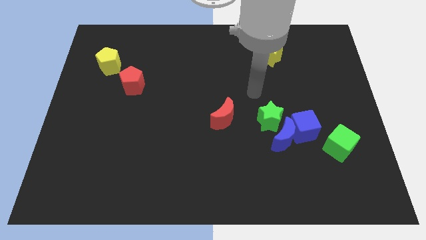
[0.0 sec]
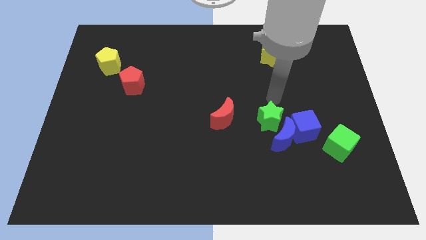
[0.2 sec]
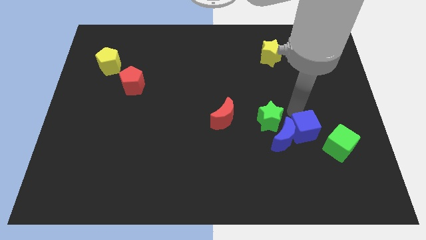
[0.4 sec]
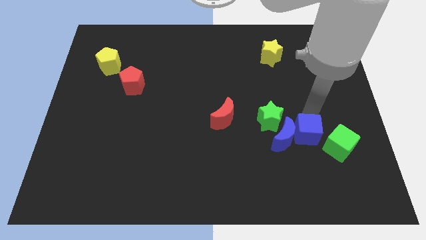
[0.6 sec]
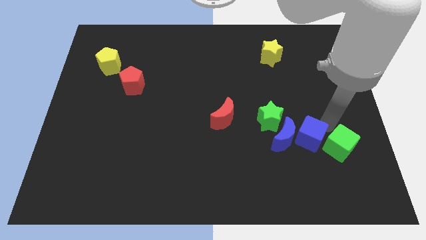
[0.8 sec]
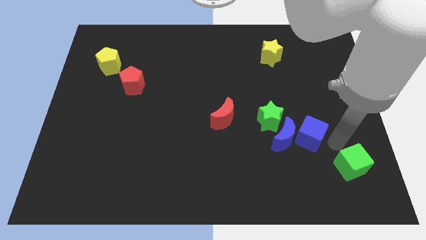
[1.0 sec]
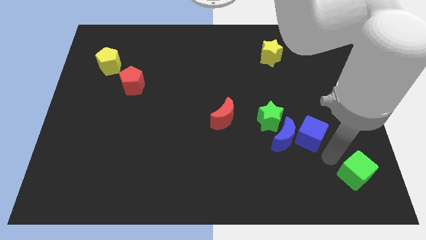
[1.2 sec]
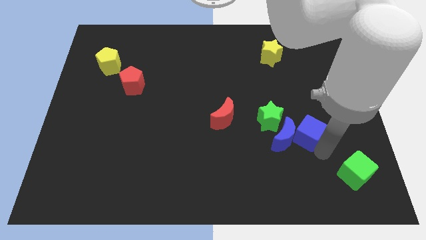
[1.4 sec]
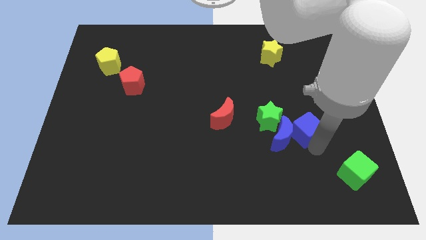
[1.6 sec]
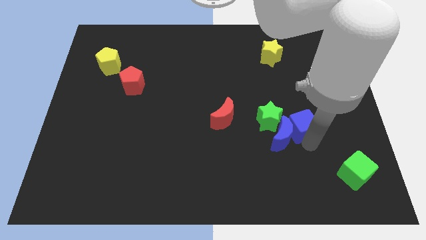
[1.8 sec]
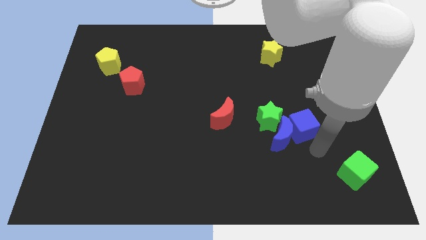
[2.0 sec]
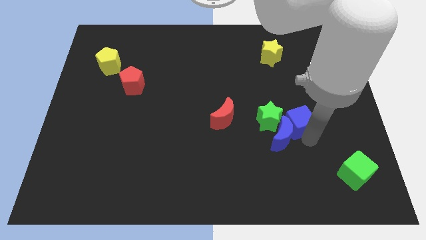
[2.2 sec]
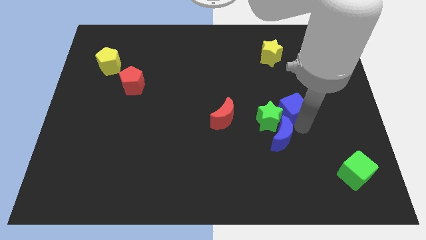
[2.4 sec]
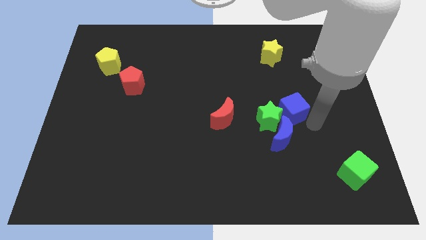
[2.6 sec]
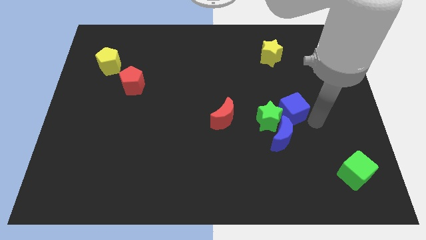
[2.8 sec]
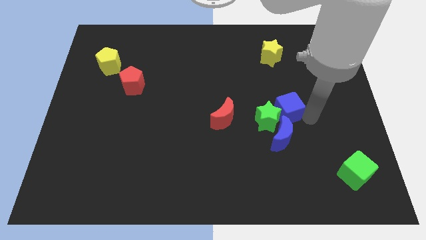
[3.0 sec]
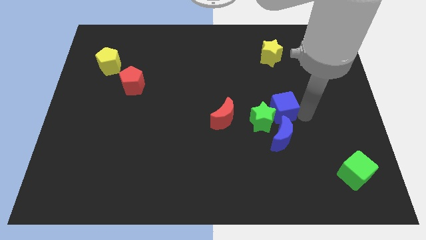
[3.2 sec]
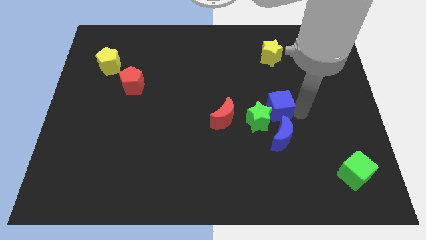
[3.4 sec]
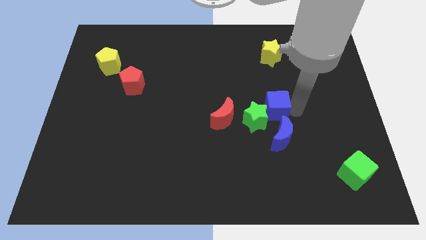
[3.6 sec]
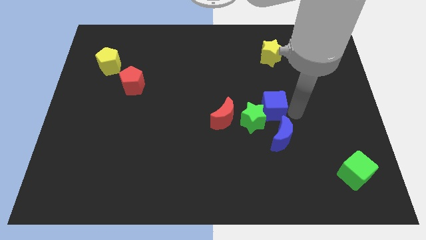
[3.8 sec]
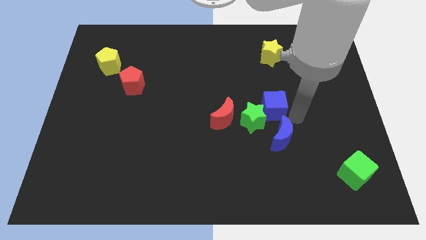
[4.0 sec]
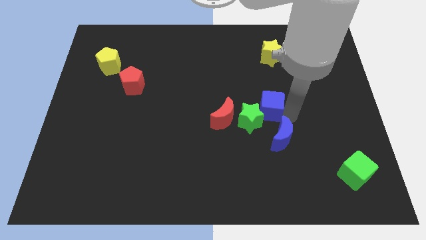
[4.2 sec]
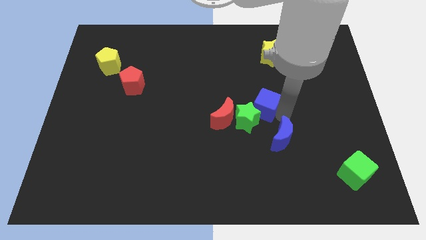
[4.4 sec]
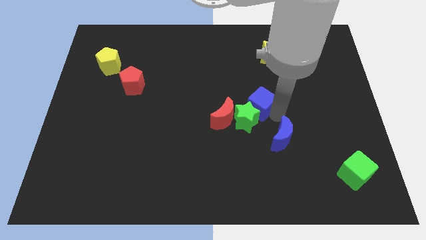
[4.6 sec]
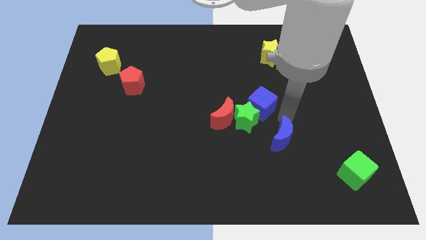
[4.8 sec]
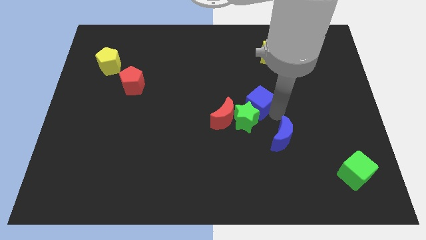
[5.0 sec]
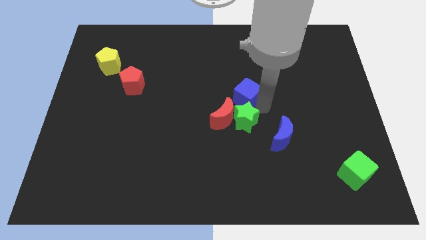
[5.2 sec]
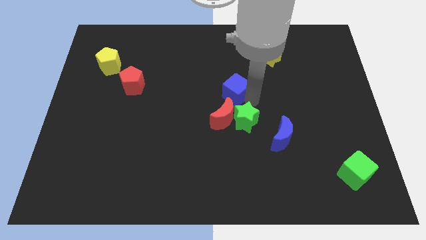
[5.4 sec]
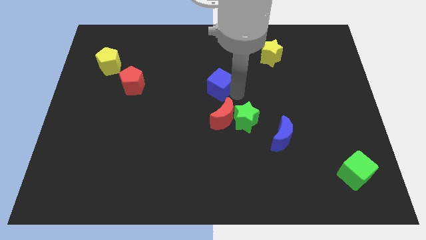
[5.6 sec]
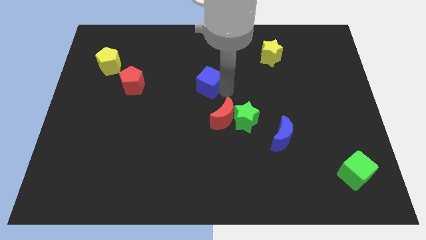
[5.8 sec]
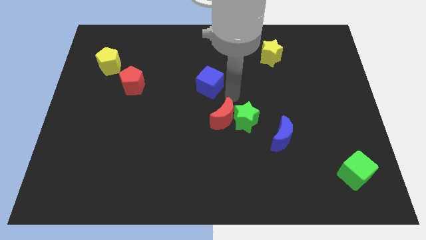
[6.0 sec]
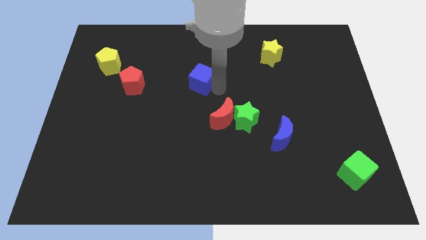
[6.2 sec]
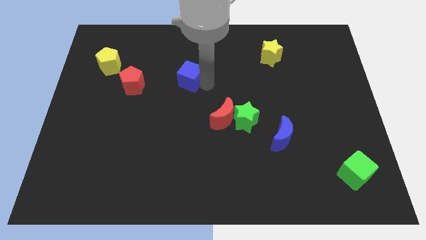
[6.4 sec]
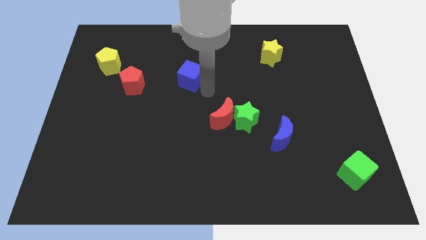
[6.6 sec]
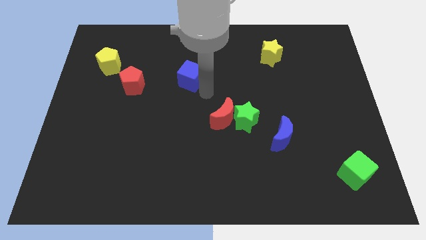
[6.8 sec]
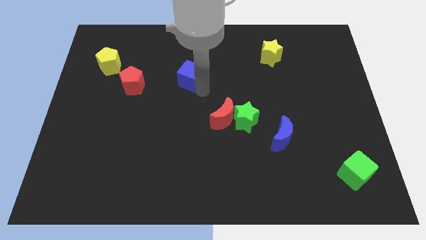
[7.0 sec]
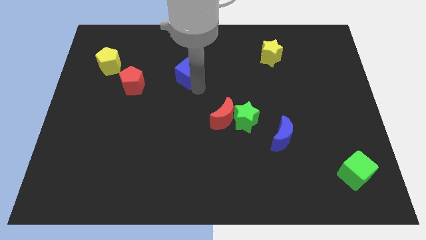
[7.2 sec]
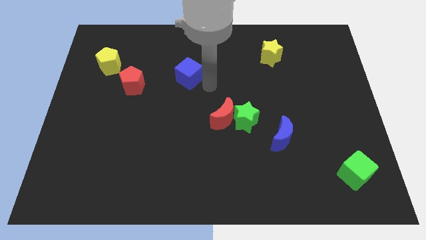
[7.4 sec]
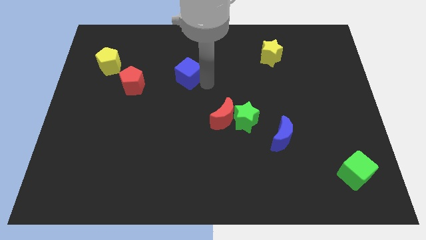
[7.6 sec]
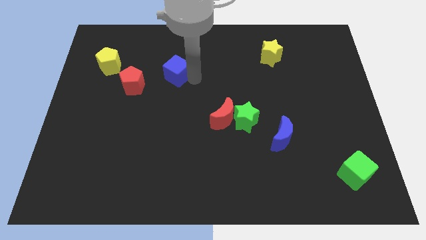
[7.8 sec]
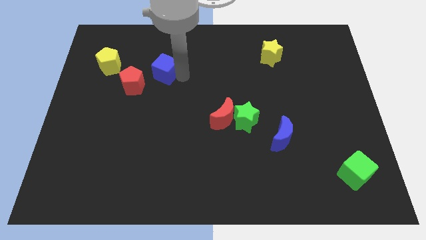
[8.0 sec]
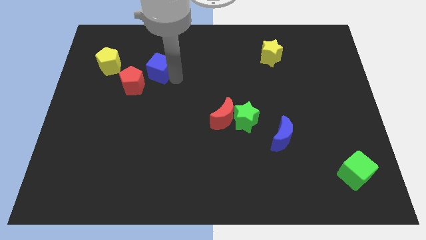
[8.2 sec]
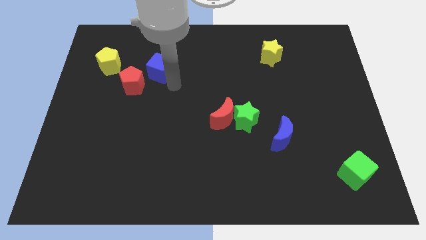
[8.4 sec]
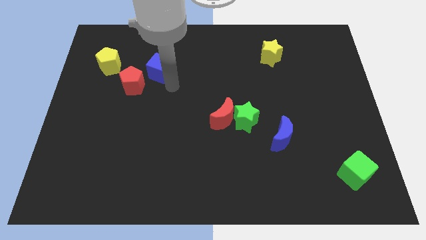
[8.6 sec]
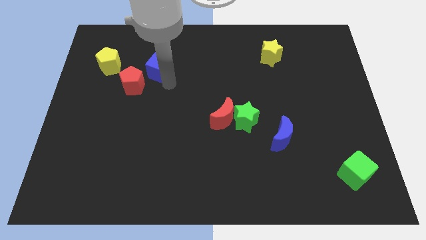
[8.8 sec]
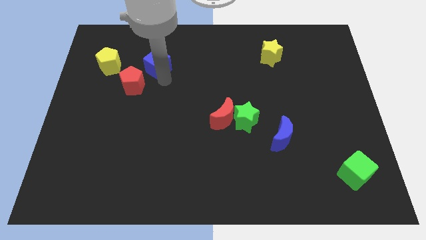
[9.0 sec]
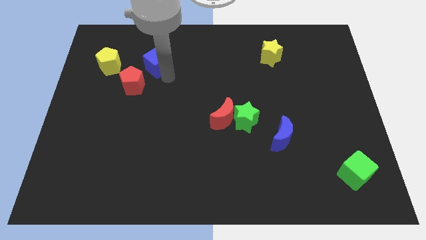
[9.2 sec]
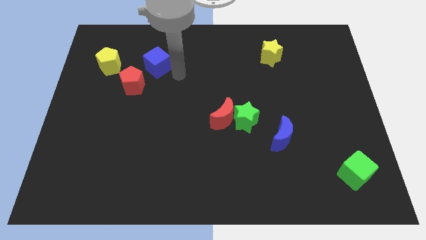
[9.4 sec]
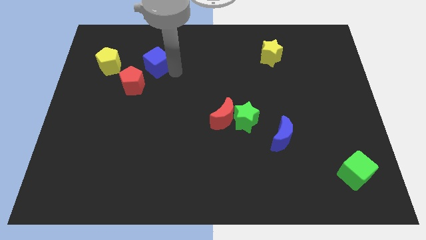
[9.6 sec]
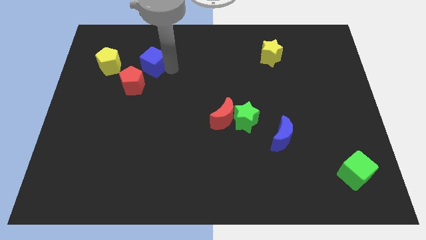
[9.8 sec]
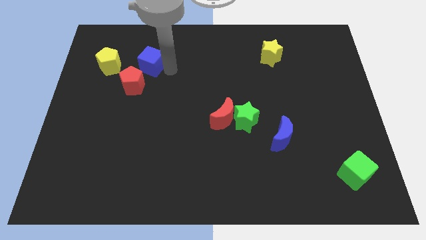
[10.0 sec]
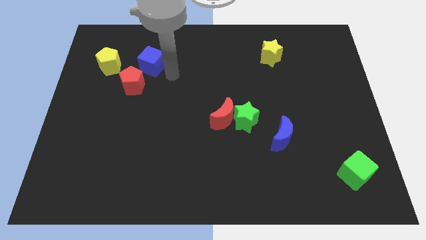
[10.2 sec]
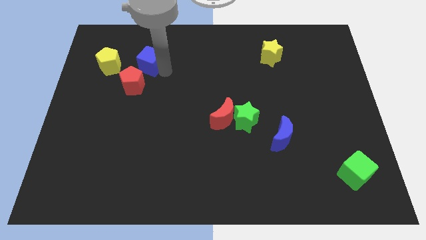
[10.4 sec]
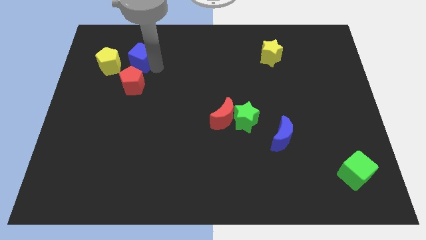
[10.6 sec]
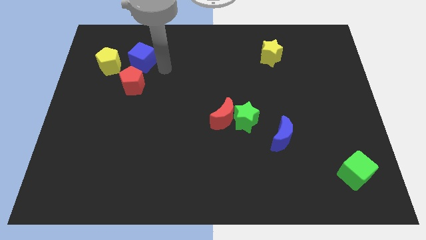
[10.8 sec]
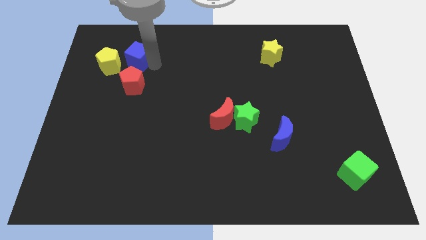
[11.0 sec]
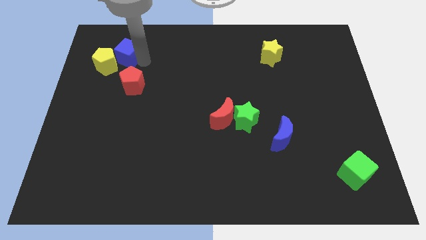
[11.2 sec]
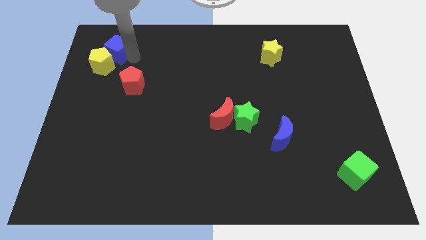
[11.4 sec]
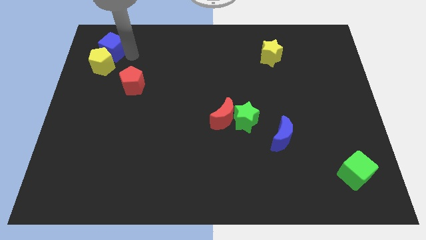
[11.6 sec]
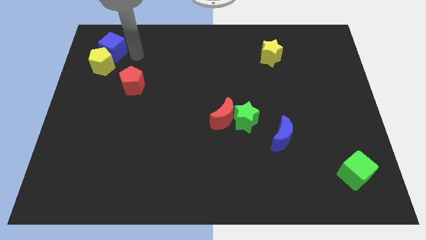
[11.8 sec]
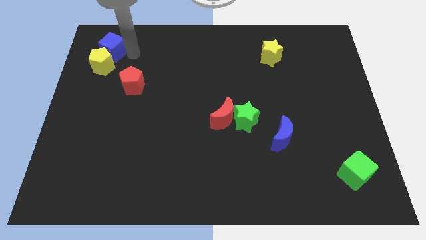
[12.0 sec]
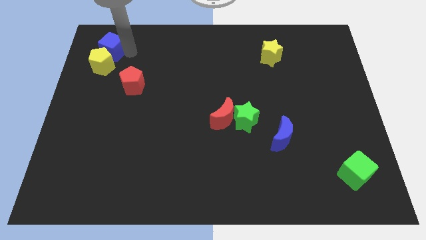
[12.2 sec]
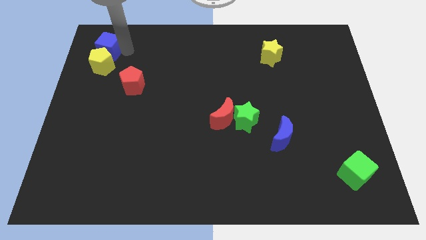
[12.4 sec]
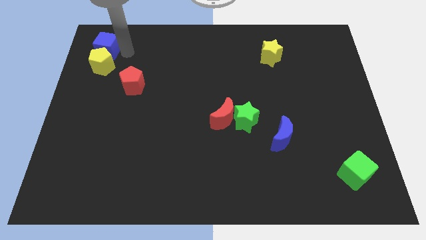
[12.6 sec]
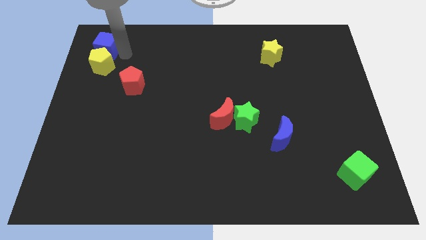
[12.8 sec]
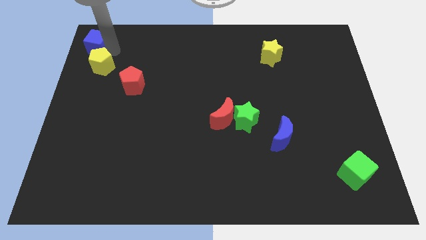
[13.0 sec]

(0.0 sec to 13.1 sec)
push the blue cube to the top left corner

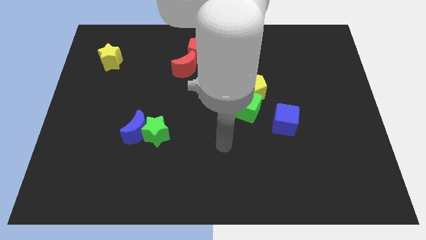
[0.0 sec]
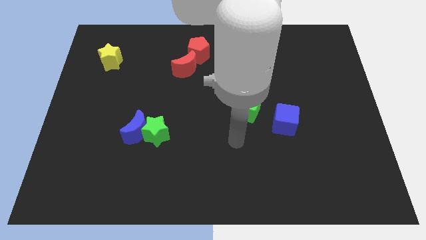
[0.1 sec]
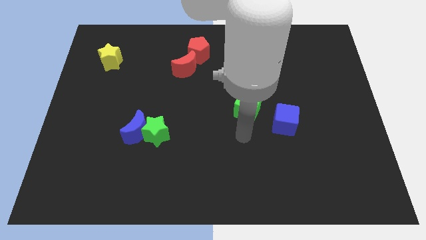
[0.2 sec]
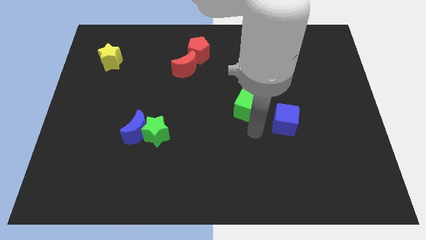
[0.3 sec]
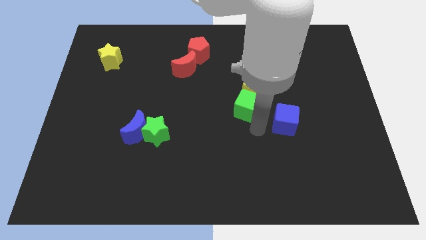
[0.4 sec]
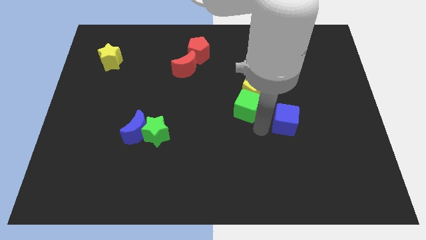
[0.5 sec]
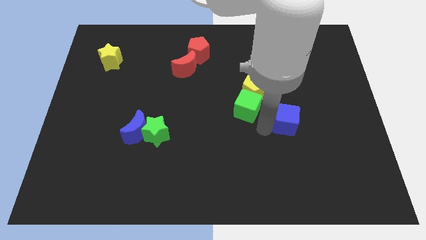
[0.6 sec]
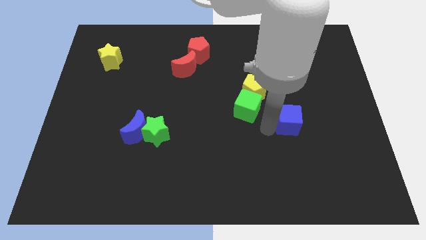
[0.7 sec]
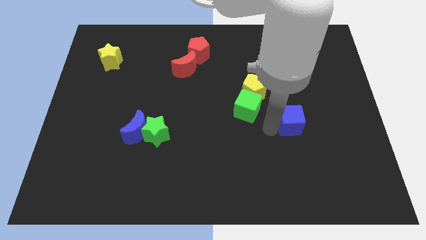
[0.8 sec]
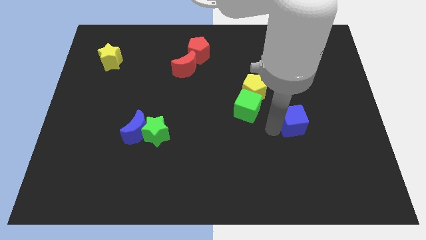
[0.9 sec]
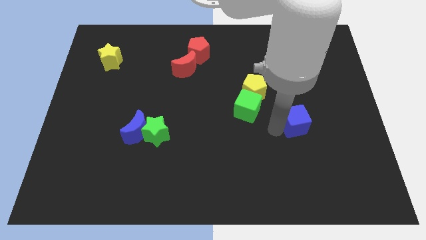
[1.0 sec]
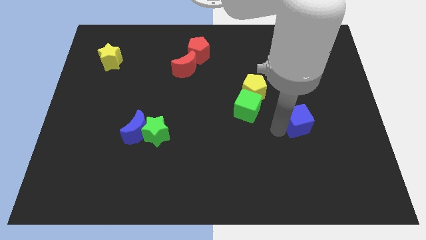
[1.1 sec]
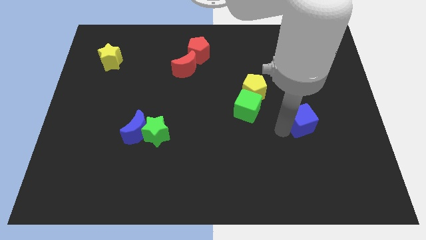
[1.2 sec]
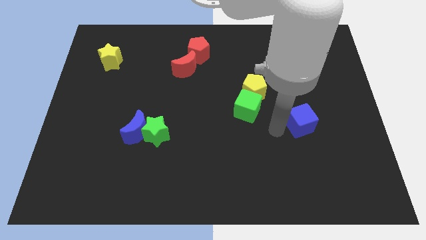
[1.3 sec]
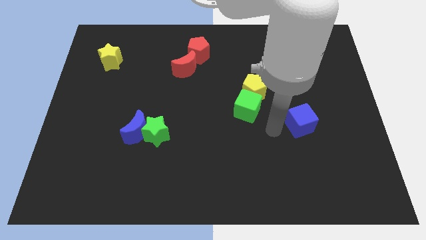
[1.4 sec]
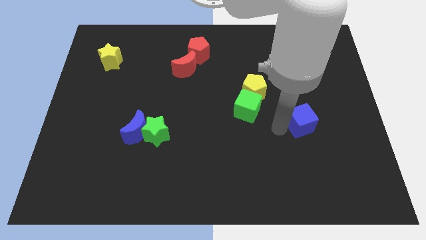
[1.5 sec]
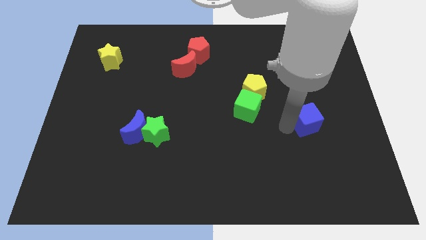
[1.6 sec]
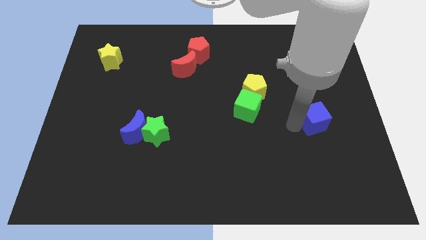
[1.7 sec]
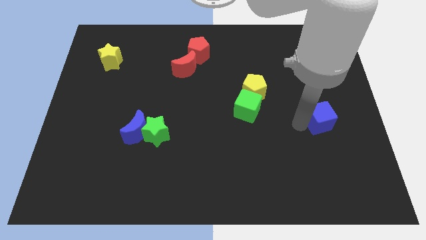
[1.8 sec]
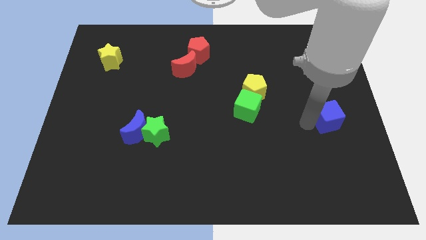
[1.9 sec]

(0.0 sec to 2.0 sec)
move the blue cube to the center right
